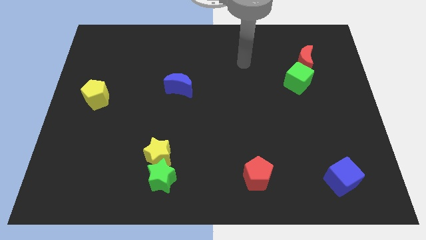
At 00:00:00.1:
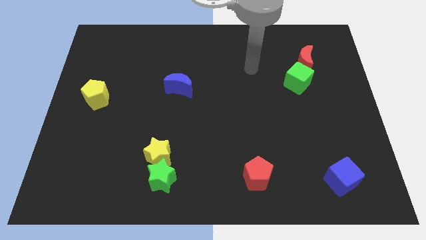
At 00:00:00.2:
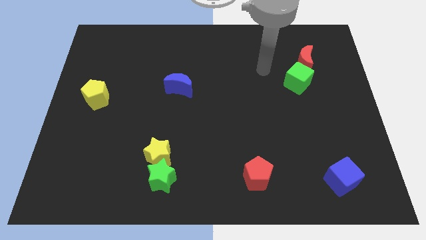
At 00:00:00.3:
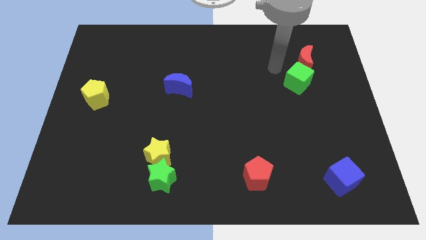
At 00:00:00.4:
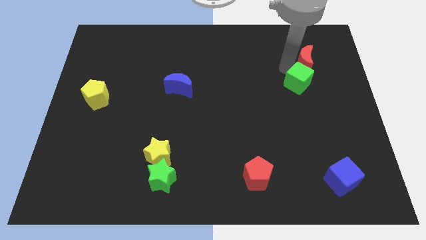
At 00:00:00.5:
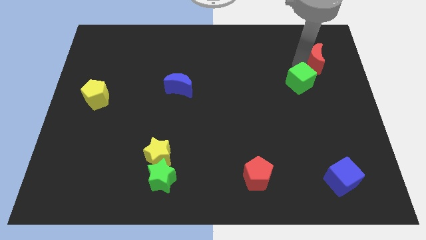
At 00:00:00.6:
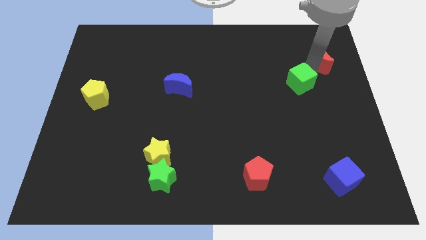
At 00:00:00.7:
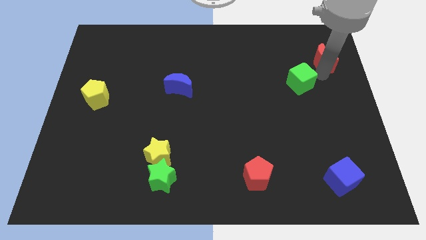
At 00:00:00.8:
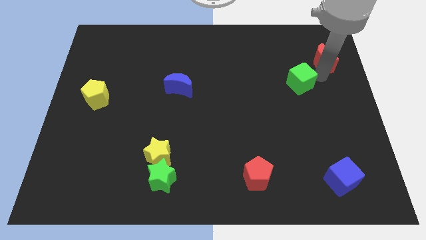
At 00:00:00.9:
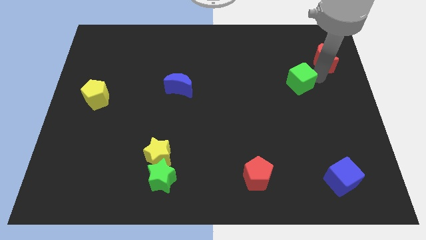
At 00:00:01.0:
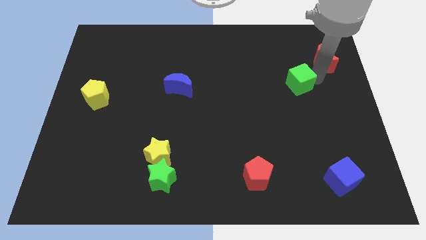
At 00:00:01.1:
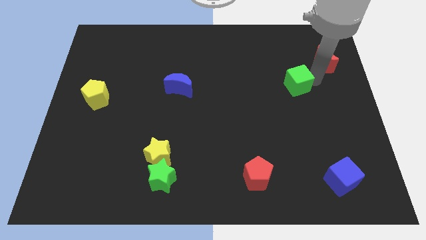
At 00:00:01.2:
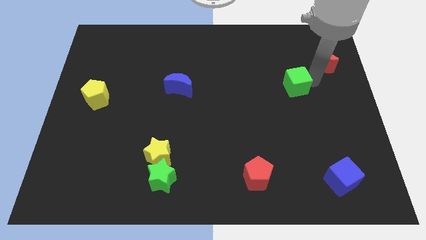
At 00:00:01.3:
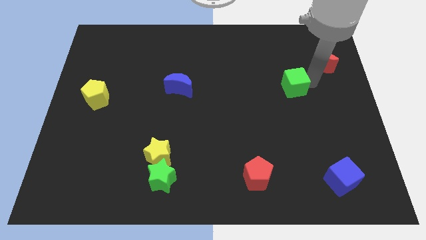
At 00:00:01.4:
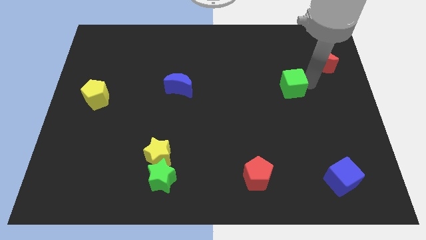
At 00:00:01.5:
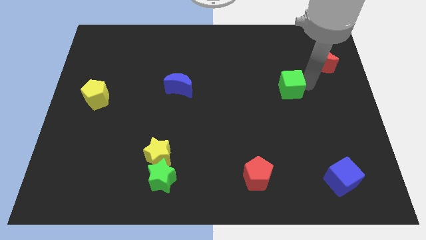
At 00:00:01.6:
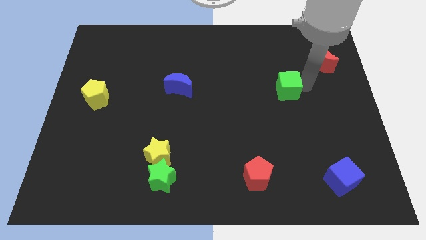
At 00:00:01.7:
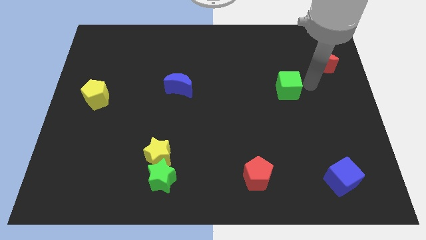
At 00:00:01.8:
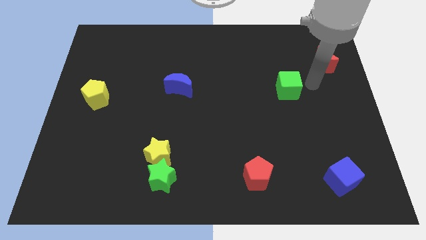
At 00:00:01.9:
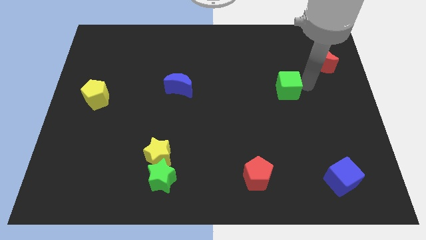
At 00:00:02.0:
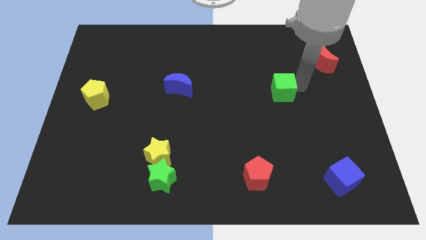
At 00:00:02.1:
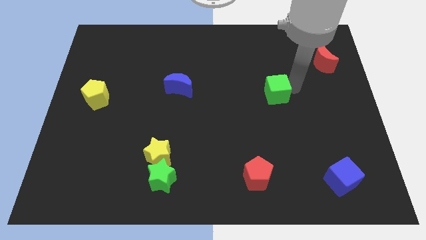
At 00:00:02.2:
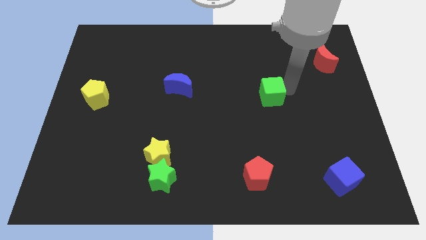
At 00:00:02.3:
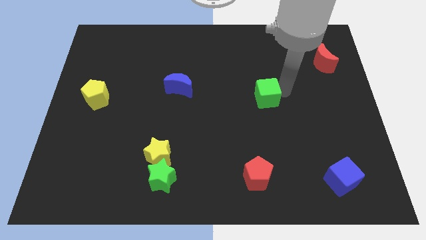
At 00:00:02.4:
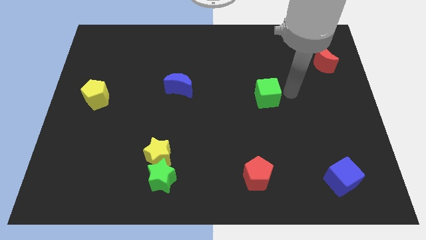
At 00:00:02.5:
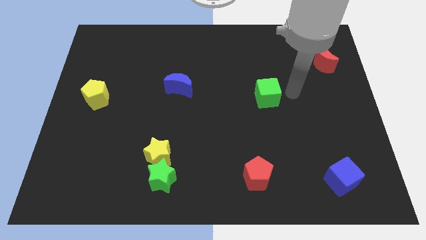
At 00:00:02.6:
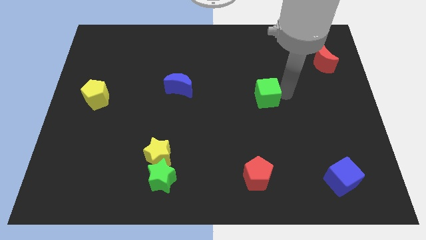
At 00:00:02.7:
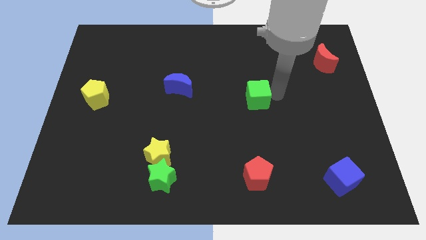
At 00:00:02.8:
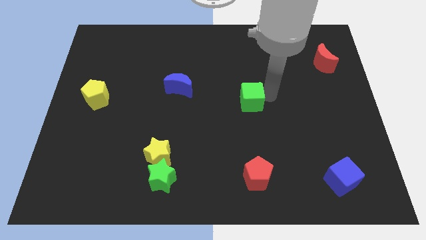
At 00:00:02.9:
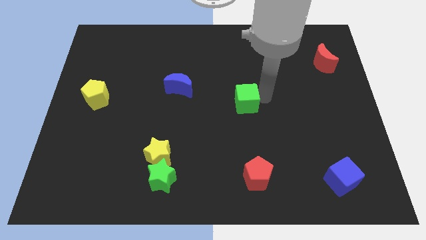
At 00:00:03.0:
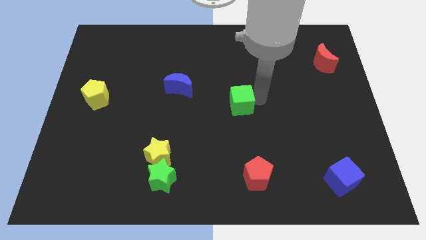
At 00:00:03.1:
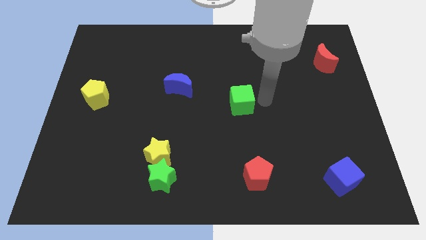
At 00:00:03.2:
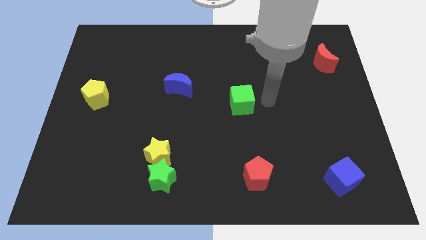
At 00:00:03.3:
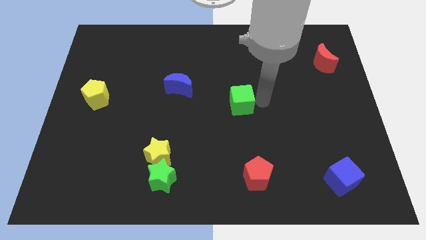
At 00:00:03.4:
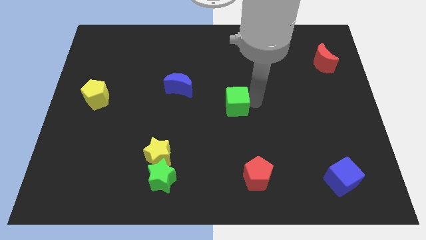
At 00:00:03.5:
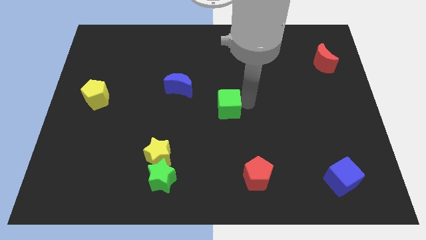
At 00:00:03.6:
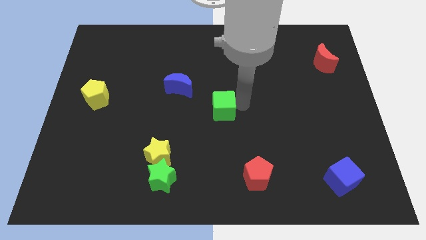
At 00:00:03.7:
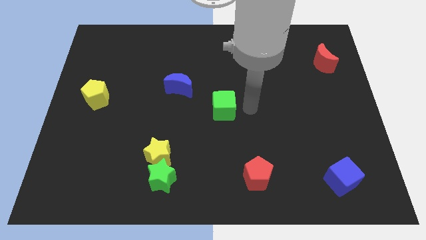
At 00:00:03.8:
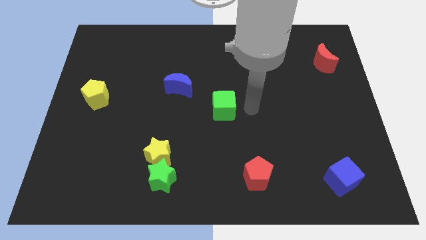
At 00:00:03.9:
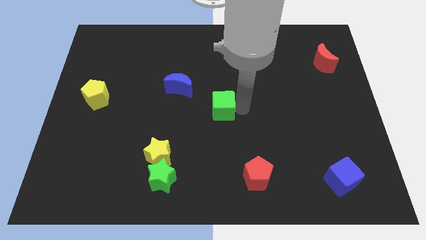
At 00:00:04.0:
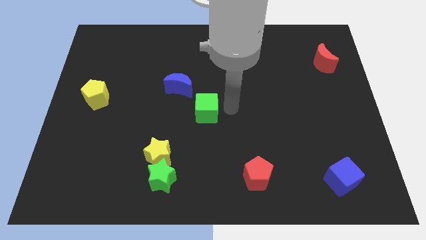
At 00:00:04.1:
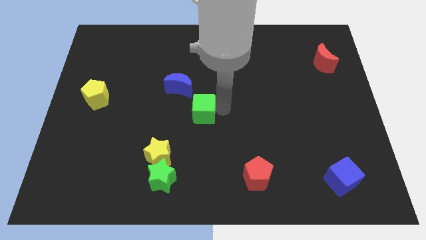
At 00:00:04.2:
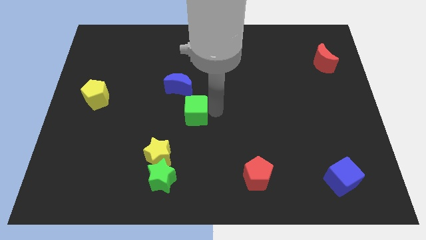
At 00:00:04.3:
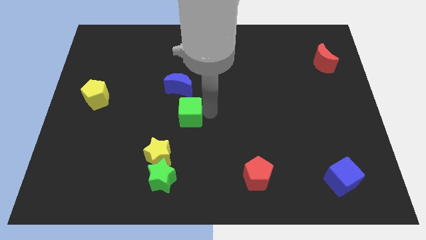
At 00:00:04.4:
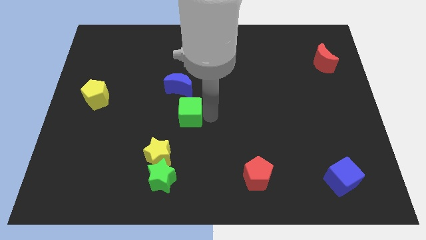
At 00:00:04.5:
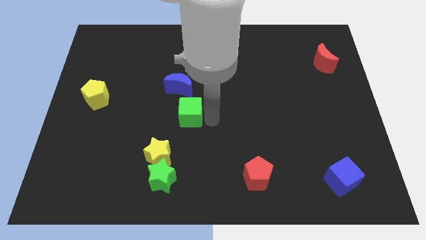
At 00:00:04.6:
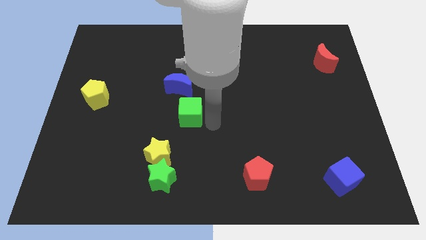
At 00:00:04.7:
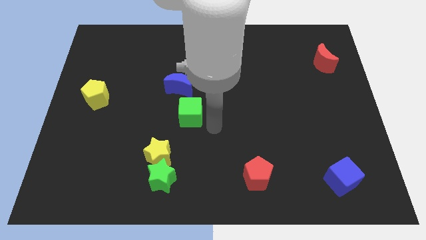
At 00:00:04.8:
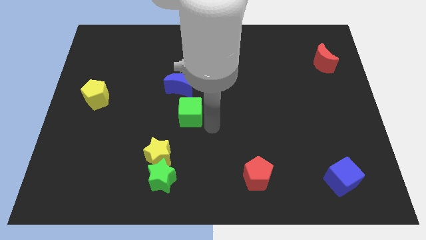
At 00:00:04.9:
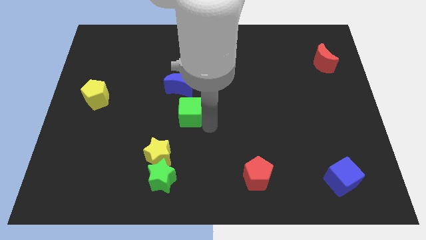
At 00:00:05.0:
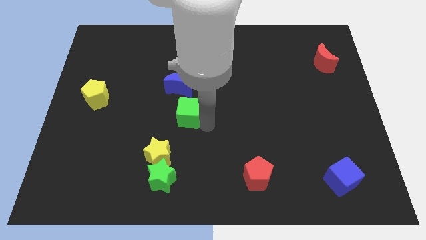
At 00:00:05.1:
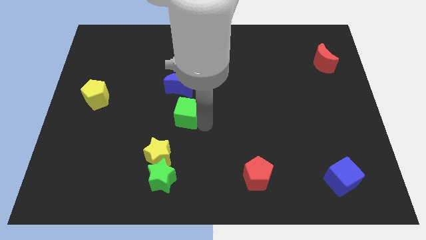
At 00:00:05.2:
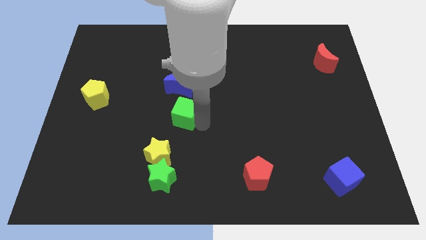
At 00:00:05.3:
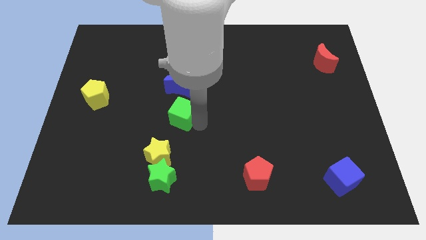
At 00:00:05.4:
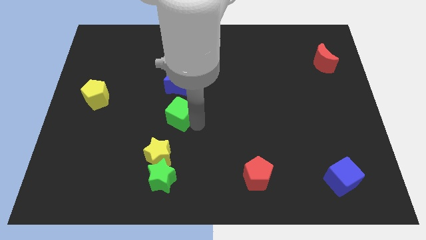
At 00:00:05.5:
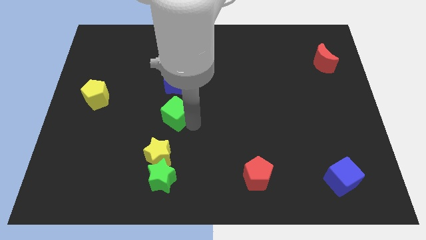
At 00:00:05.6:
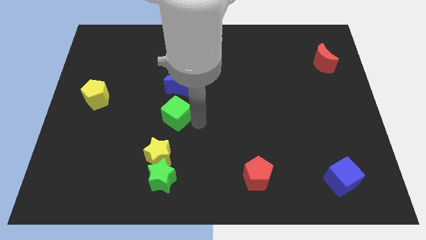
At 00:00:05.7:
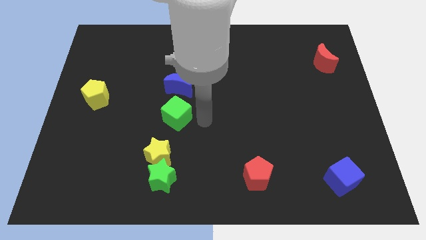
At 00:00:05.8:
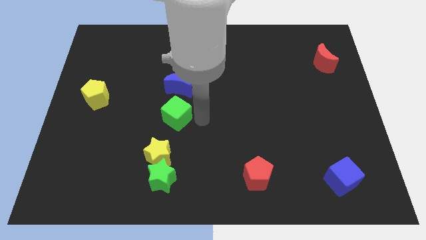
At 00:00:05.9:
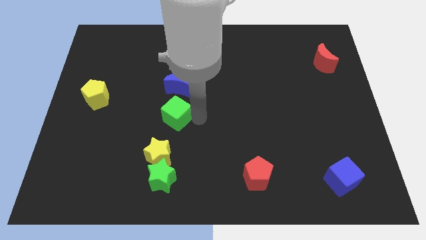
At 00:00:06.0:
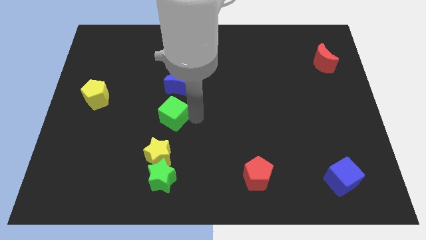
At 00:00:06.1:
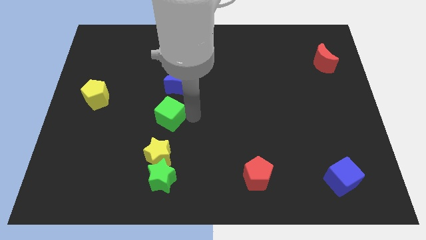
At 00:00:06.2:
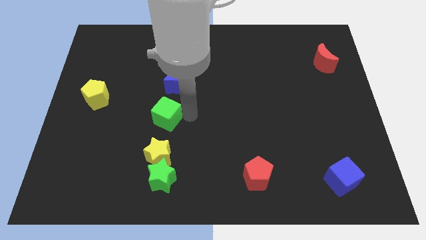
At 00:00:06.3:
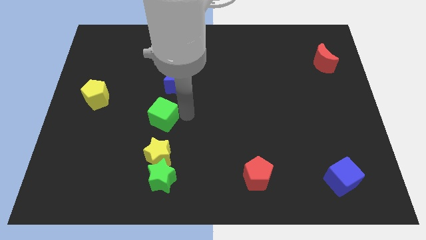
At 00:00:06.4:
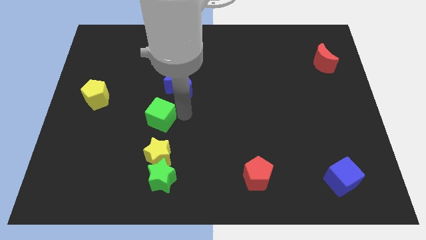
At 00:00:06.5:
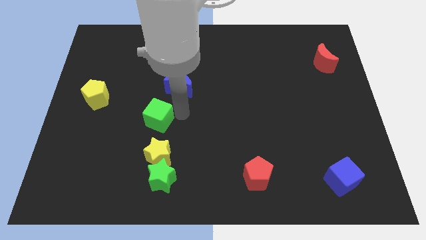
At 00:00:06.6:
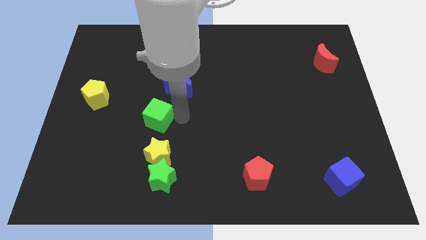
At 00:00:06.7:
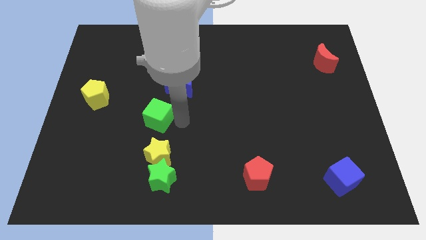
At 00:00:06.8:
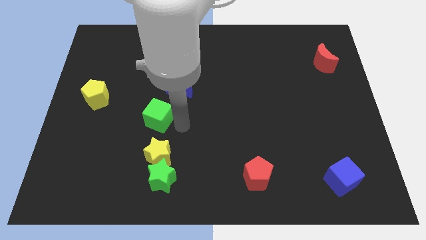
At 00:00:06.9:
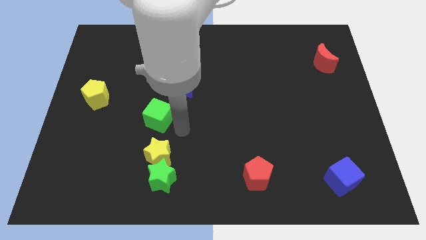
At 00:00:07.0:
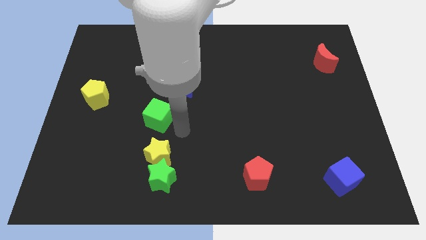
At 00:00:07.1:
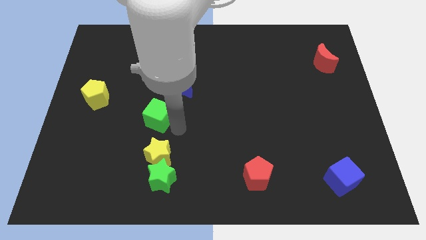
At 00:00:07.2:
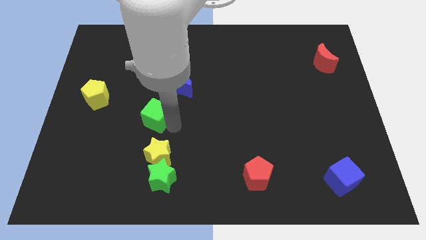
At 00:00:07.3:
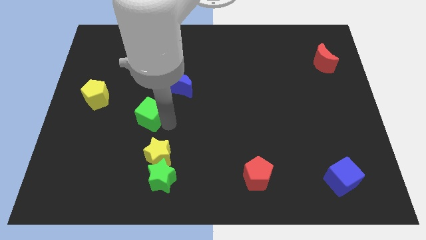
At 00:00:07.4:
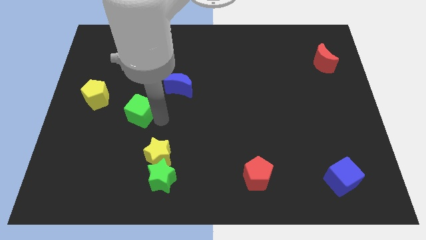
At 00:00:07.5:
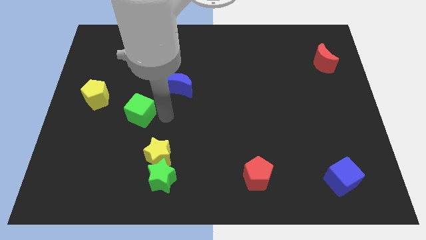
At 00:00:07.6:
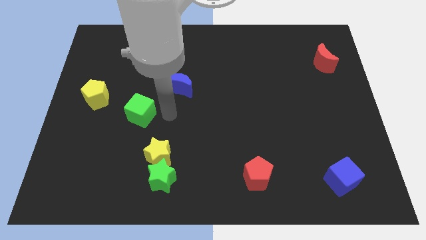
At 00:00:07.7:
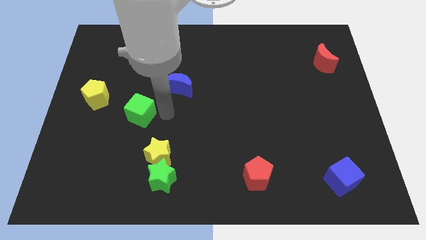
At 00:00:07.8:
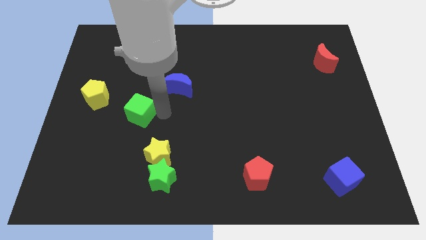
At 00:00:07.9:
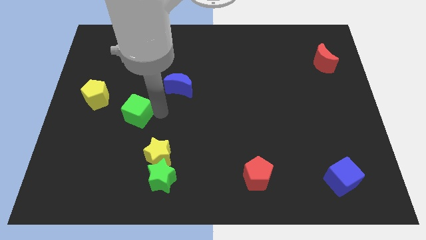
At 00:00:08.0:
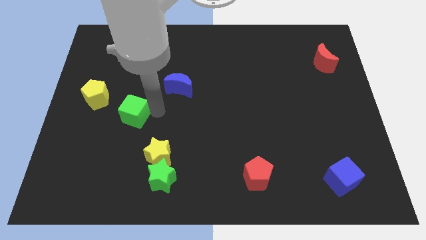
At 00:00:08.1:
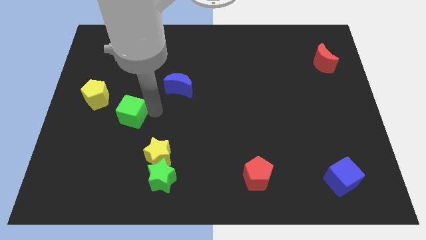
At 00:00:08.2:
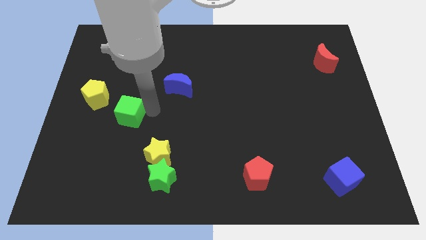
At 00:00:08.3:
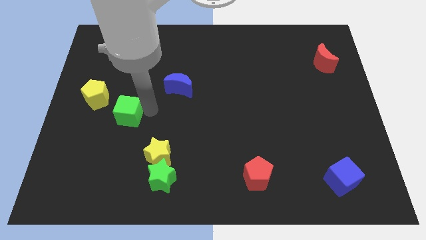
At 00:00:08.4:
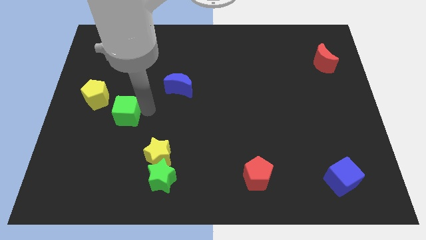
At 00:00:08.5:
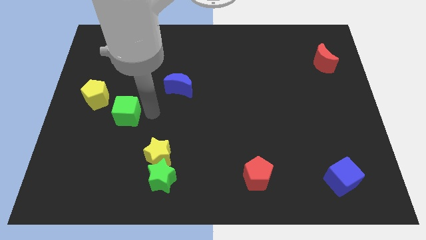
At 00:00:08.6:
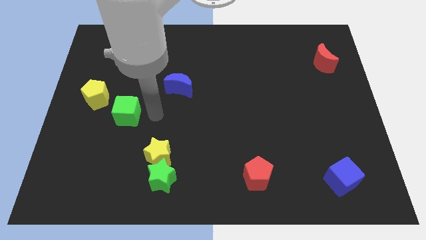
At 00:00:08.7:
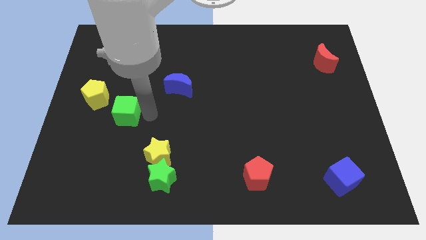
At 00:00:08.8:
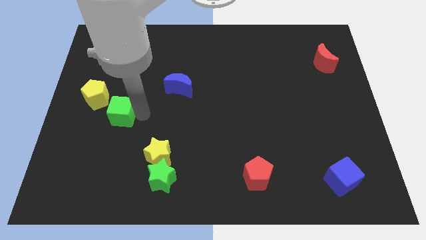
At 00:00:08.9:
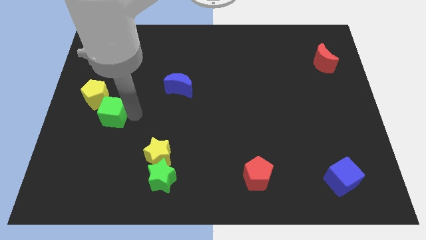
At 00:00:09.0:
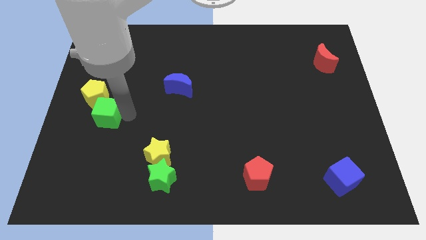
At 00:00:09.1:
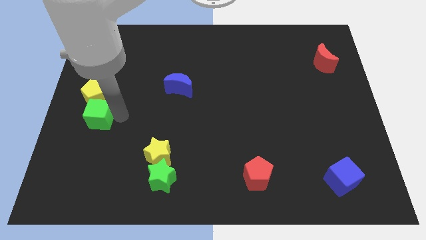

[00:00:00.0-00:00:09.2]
slide the green cube to the center left
